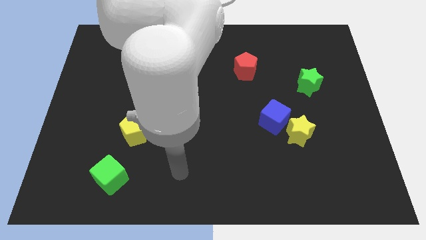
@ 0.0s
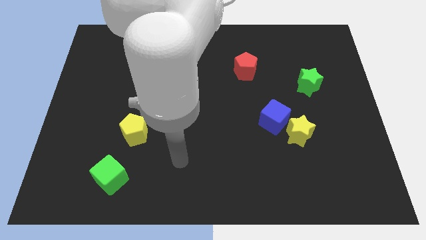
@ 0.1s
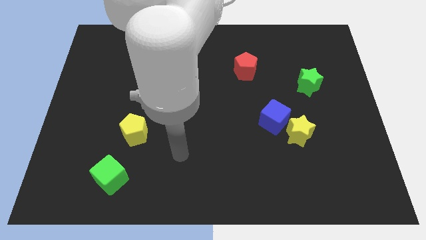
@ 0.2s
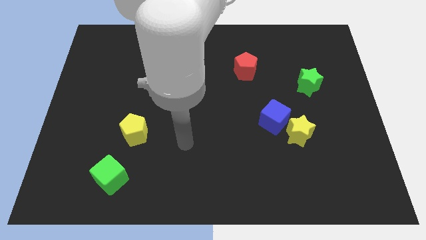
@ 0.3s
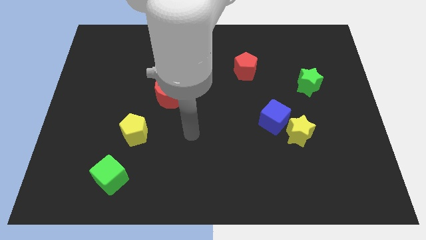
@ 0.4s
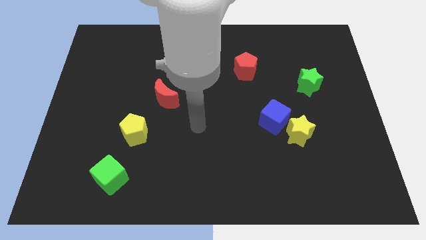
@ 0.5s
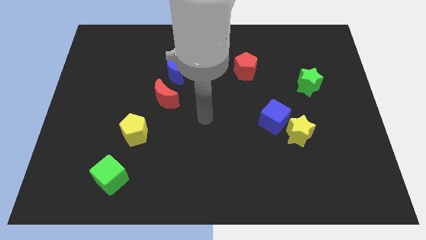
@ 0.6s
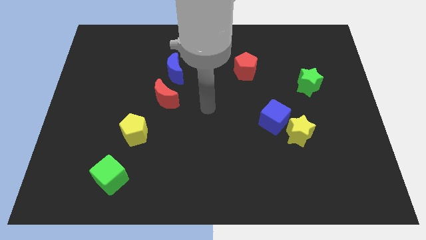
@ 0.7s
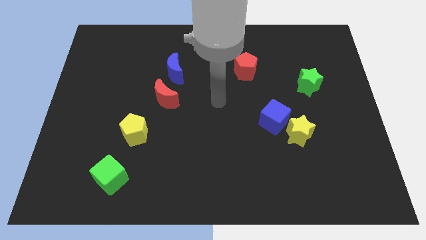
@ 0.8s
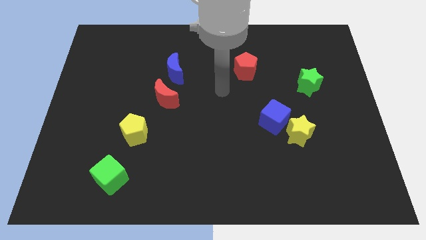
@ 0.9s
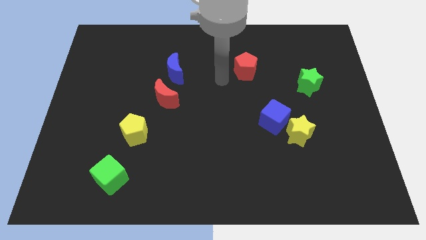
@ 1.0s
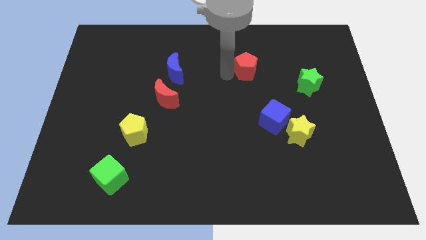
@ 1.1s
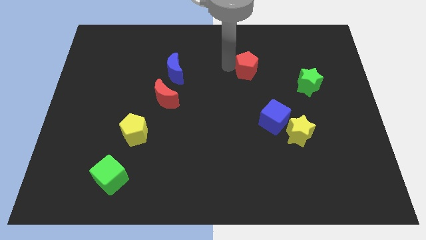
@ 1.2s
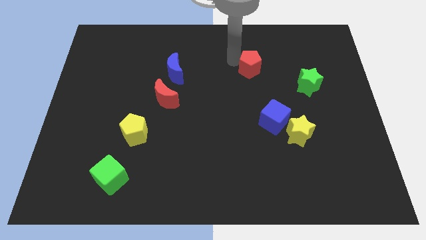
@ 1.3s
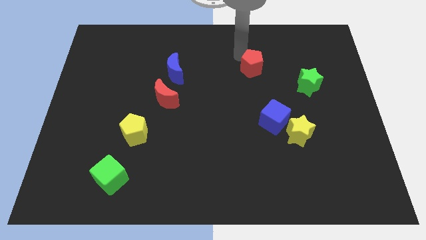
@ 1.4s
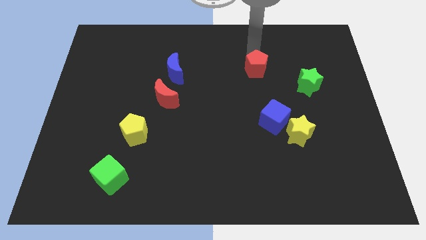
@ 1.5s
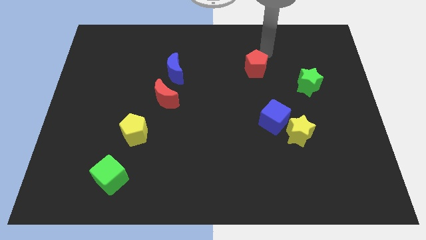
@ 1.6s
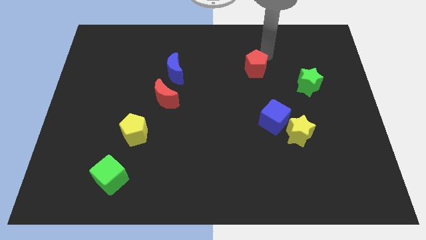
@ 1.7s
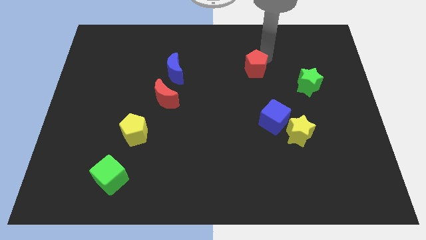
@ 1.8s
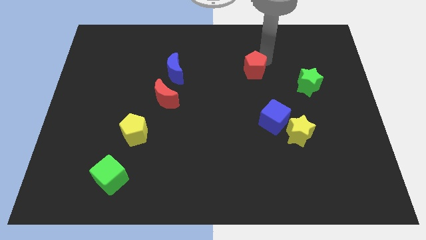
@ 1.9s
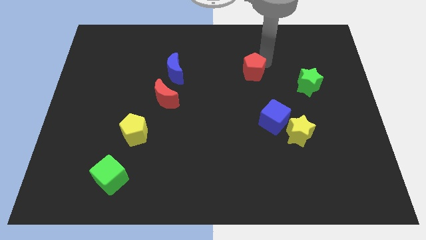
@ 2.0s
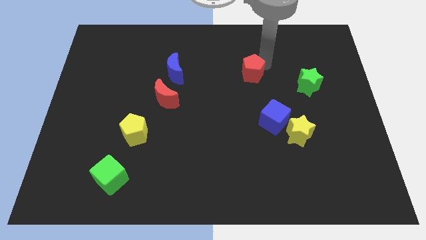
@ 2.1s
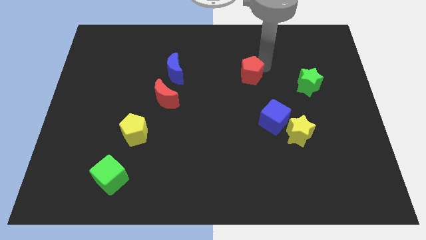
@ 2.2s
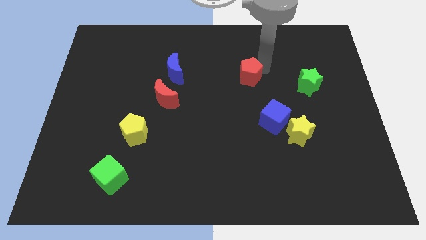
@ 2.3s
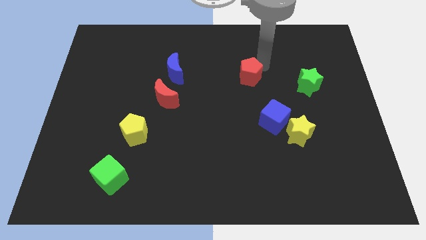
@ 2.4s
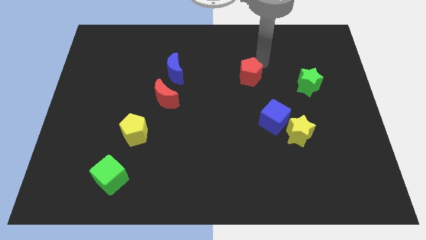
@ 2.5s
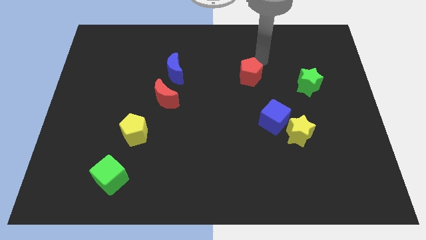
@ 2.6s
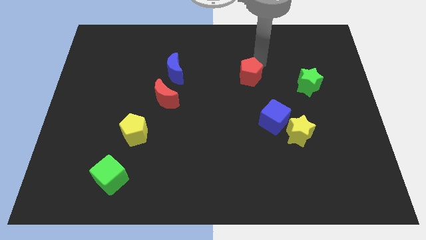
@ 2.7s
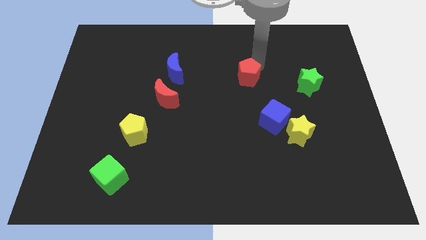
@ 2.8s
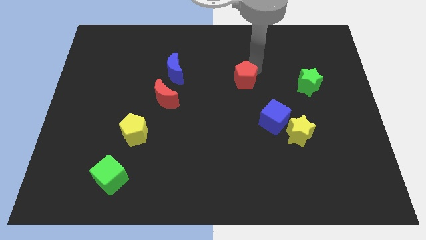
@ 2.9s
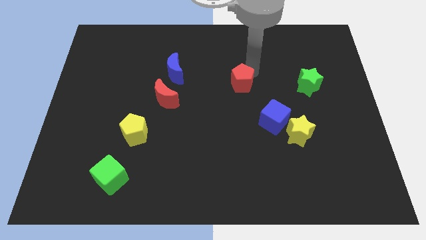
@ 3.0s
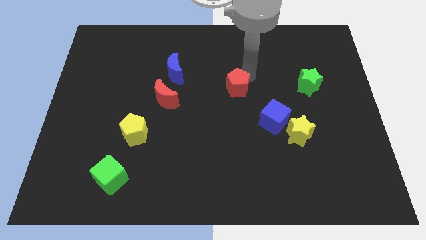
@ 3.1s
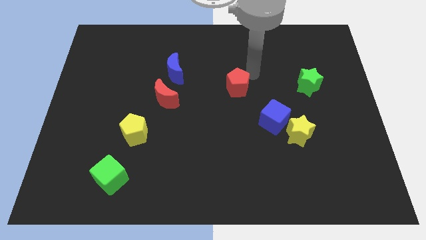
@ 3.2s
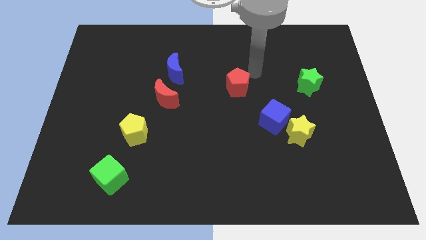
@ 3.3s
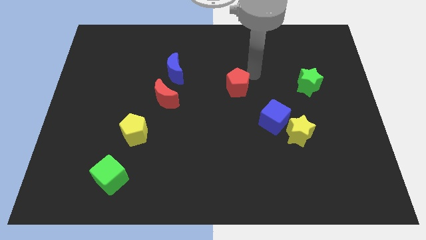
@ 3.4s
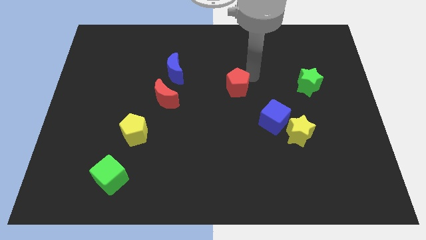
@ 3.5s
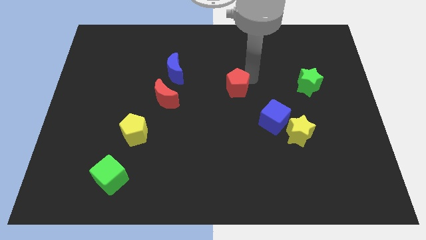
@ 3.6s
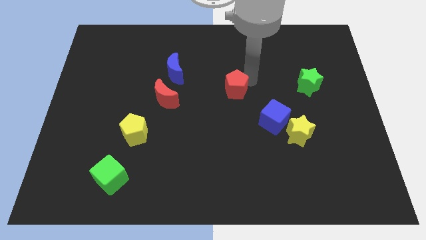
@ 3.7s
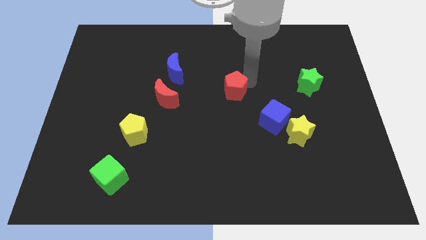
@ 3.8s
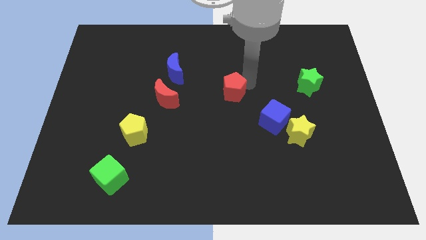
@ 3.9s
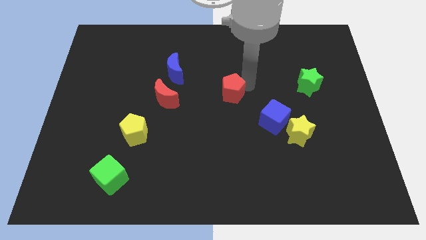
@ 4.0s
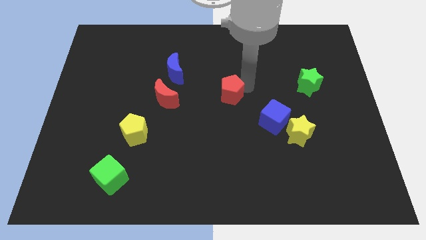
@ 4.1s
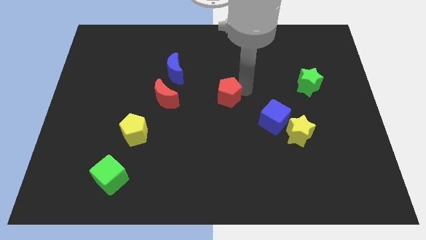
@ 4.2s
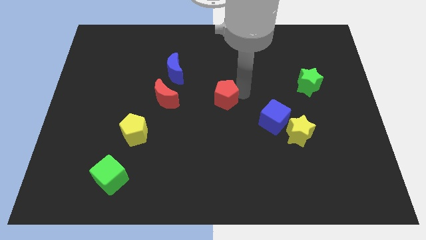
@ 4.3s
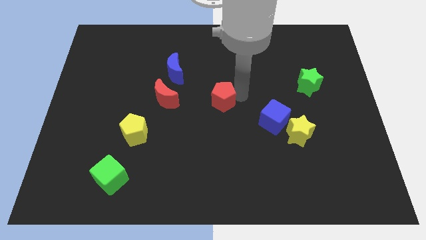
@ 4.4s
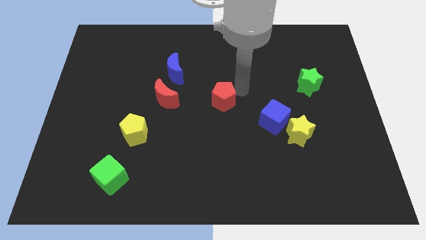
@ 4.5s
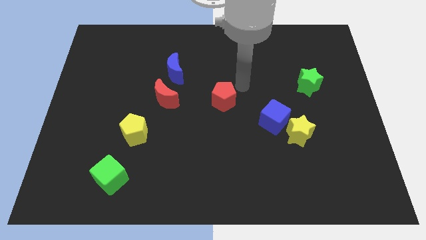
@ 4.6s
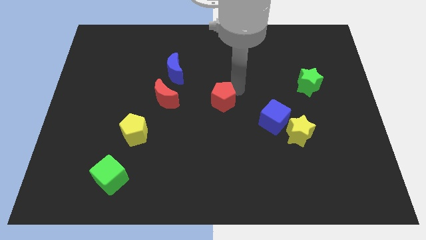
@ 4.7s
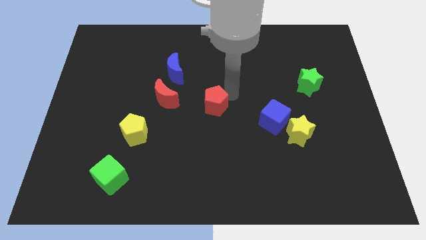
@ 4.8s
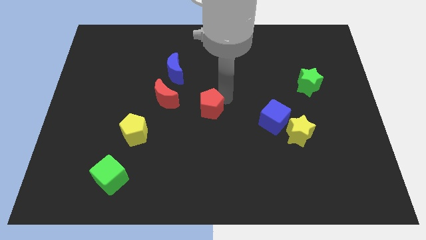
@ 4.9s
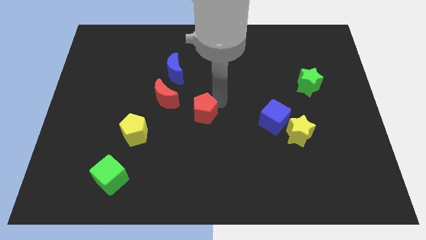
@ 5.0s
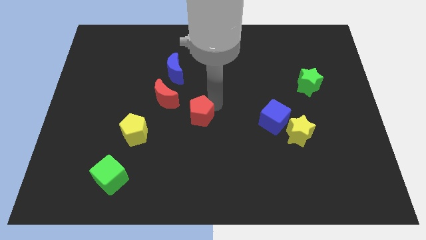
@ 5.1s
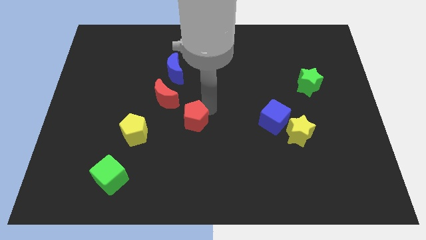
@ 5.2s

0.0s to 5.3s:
slide the red pentagon to the right of the yellow pentagon

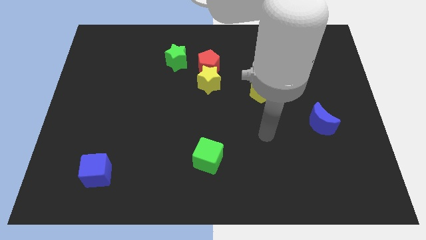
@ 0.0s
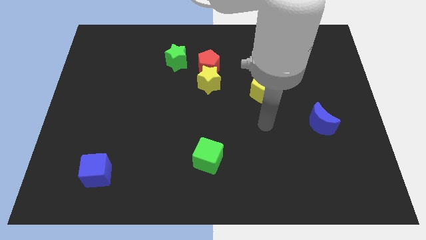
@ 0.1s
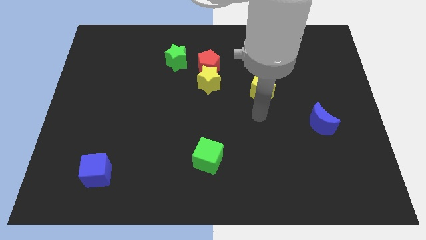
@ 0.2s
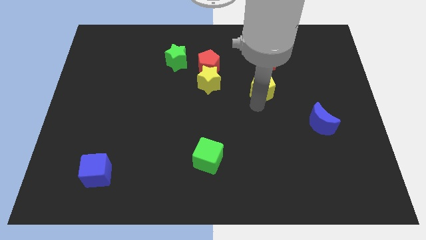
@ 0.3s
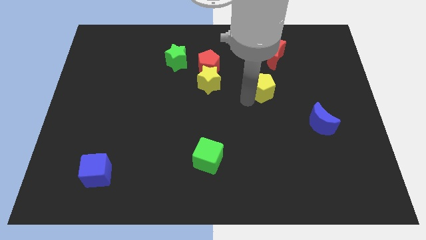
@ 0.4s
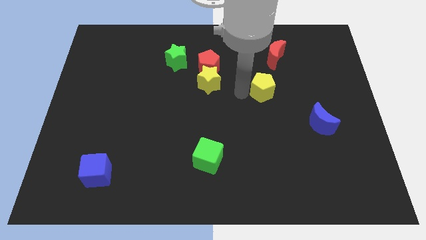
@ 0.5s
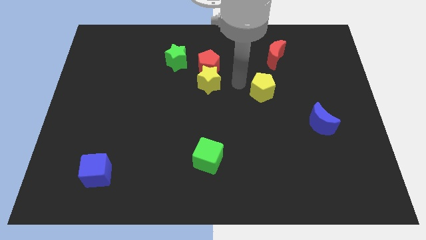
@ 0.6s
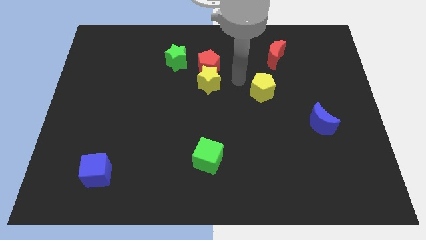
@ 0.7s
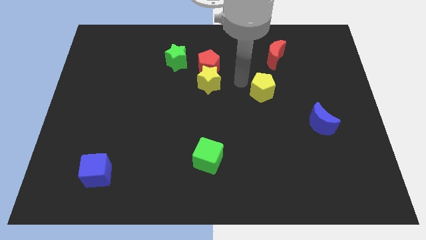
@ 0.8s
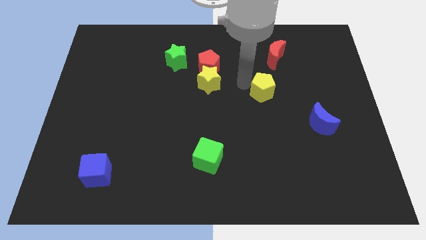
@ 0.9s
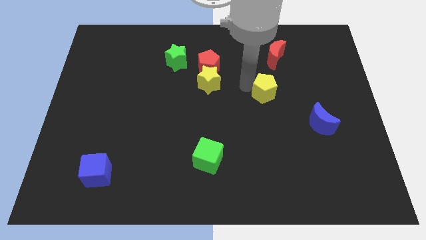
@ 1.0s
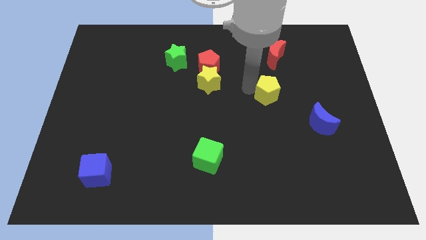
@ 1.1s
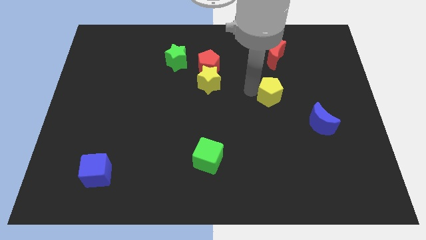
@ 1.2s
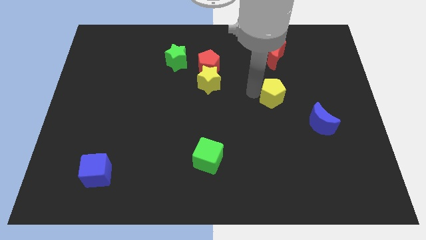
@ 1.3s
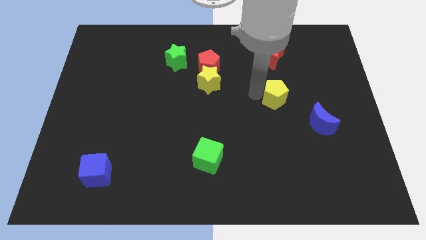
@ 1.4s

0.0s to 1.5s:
put the yellow pentagon to the top left of the blue moon

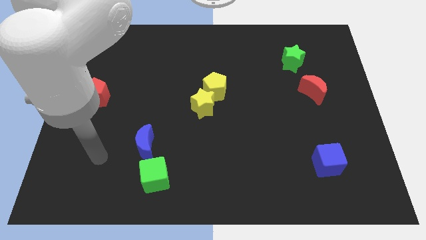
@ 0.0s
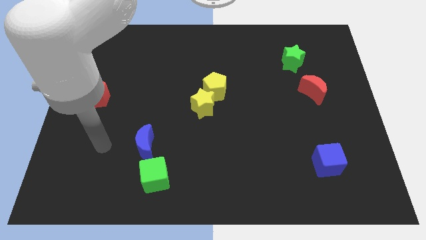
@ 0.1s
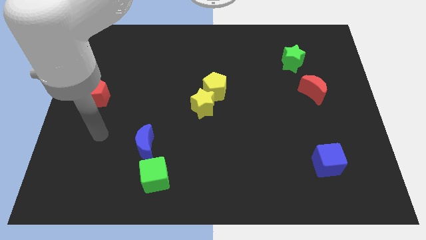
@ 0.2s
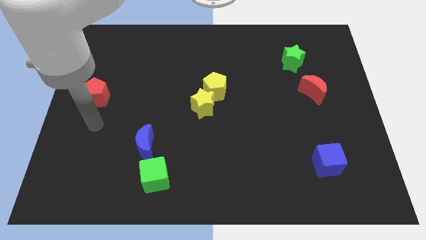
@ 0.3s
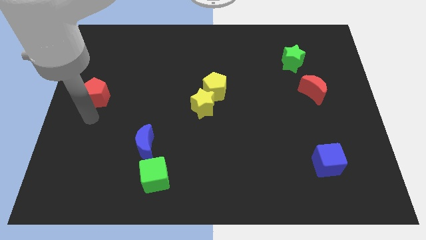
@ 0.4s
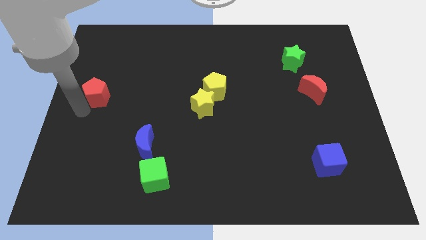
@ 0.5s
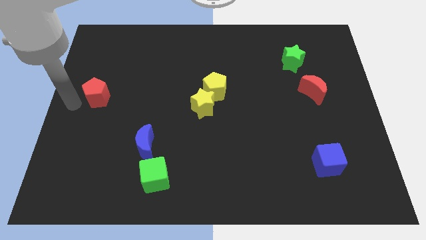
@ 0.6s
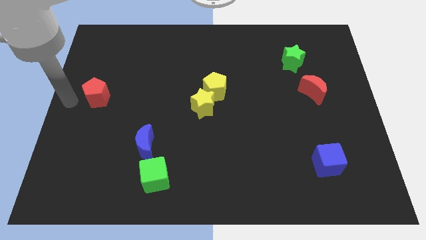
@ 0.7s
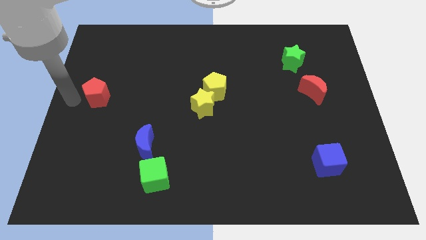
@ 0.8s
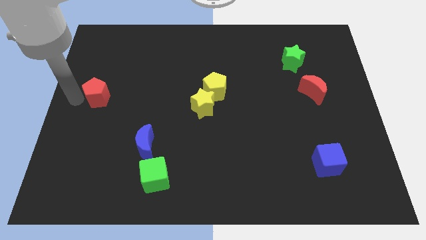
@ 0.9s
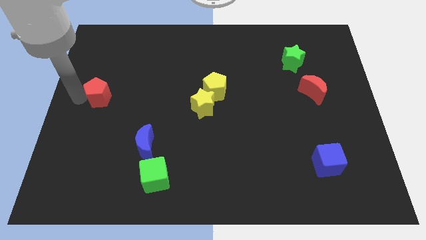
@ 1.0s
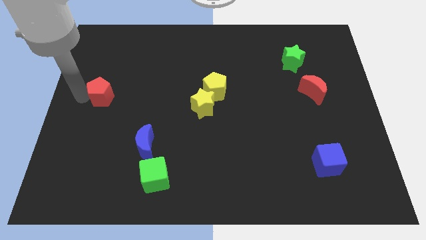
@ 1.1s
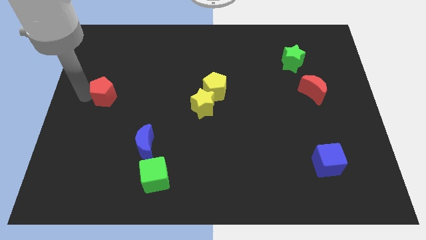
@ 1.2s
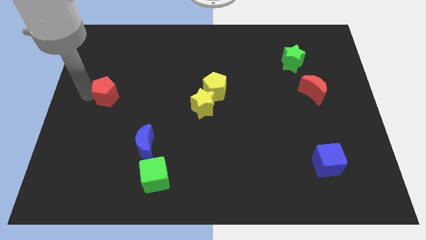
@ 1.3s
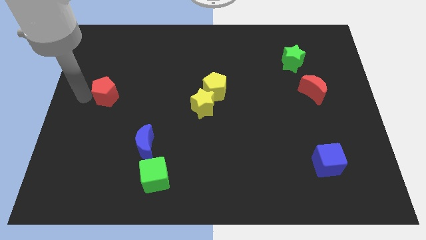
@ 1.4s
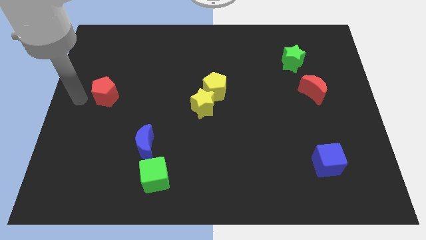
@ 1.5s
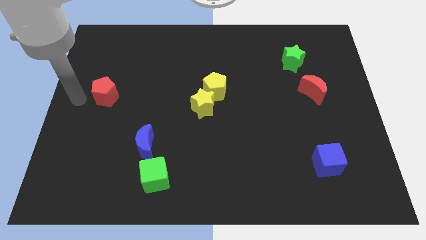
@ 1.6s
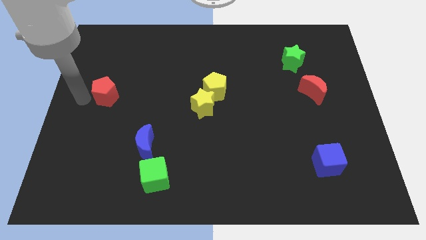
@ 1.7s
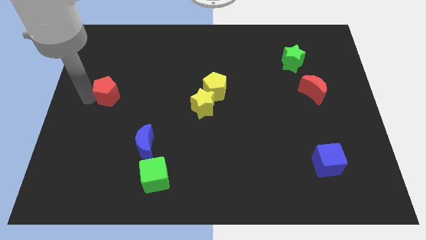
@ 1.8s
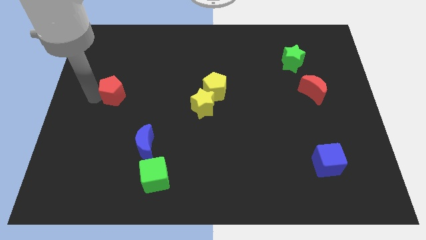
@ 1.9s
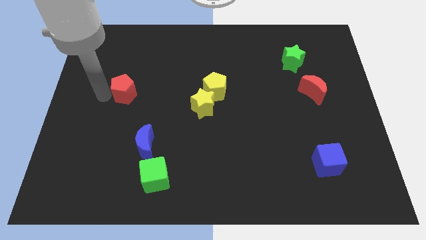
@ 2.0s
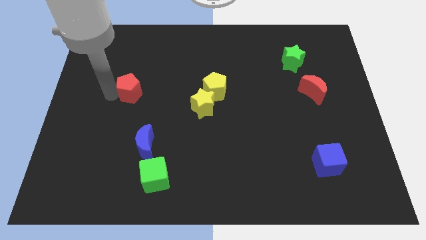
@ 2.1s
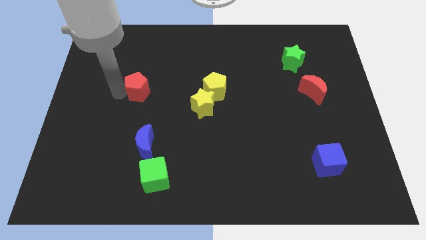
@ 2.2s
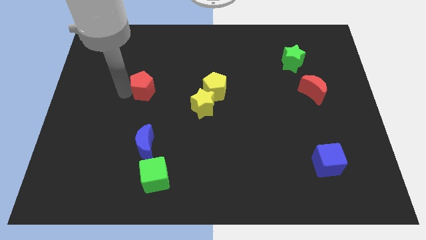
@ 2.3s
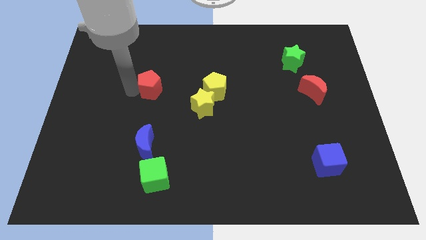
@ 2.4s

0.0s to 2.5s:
put the red pentagon to the left side of the yellow pentagon
